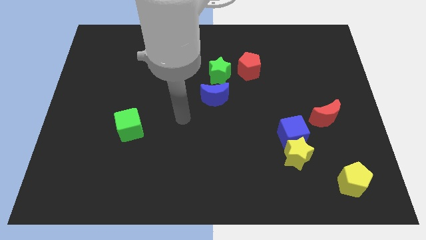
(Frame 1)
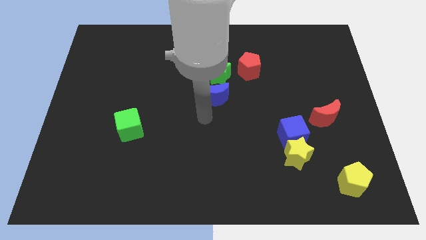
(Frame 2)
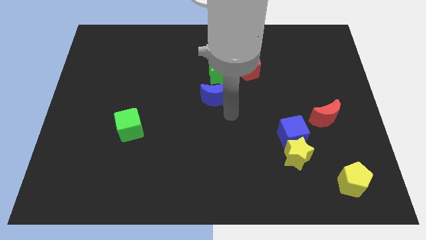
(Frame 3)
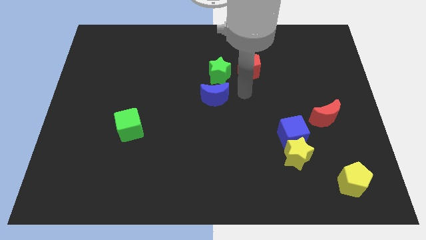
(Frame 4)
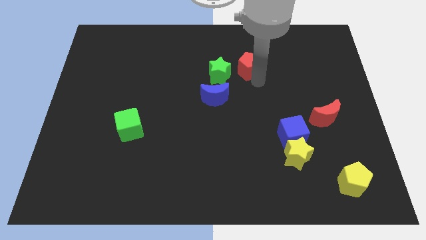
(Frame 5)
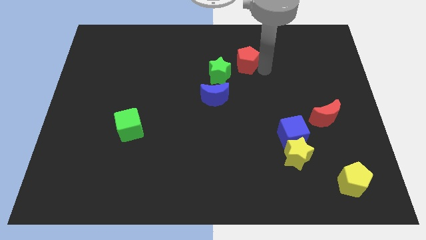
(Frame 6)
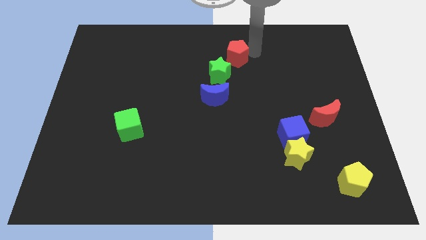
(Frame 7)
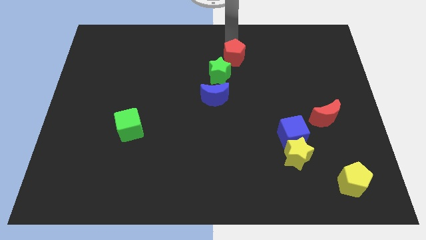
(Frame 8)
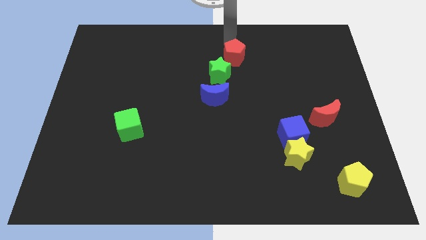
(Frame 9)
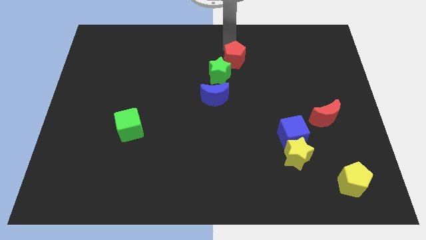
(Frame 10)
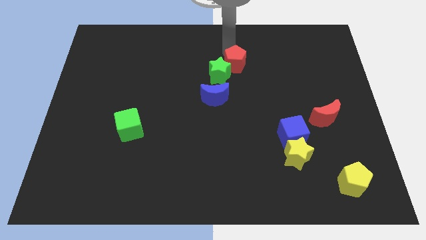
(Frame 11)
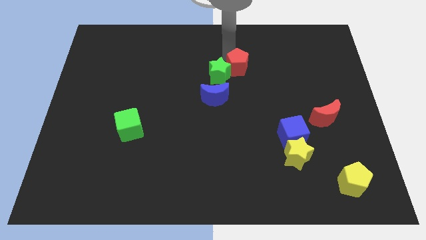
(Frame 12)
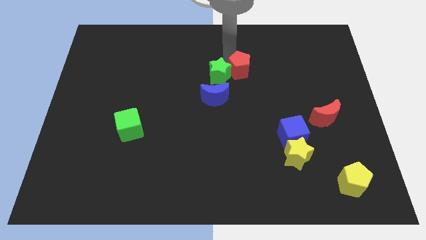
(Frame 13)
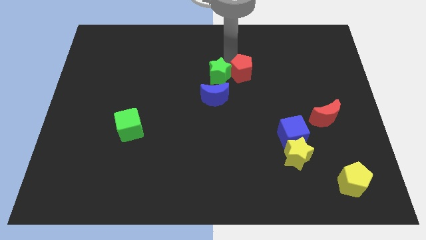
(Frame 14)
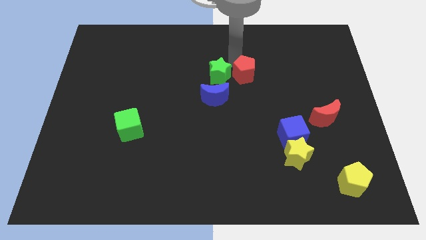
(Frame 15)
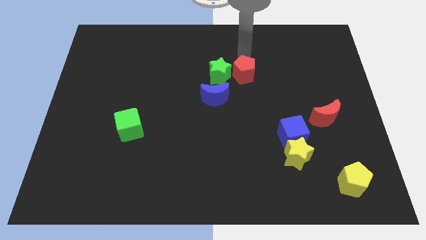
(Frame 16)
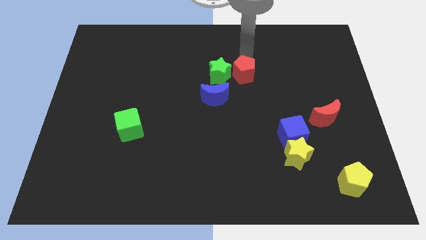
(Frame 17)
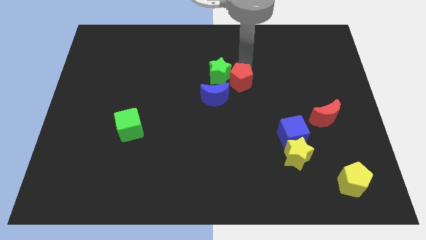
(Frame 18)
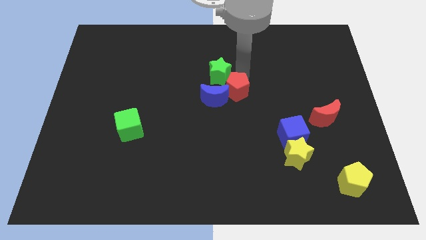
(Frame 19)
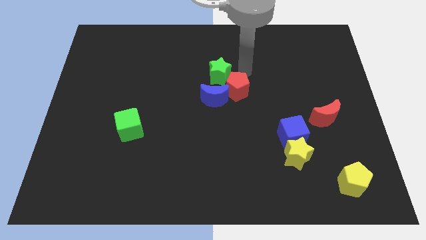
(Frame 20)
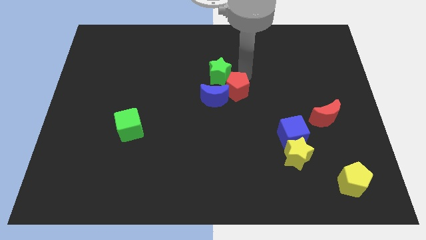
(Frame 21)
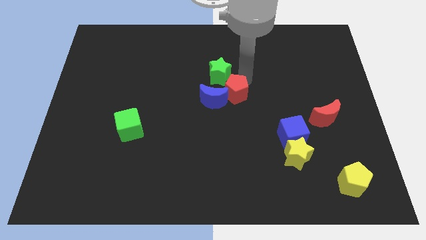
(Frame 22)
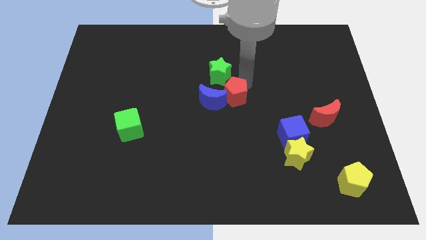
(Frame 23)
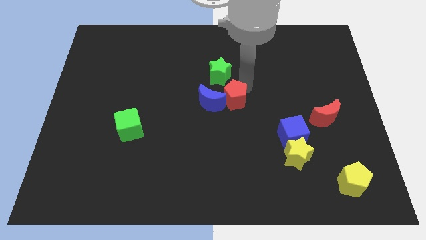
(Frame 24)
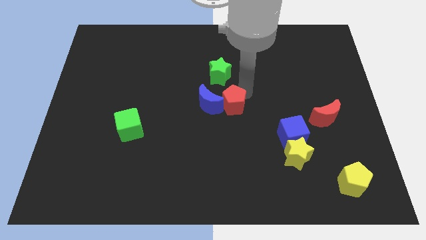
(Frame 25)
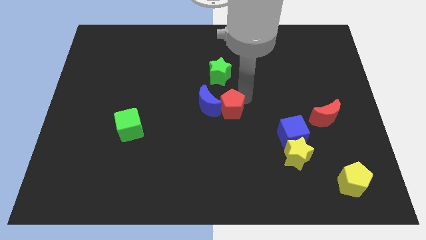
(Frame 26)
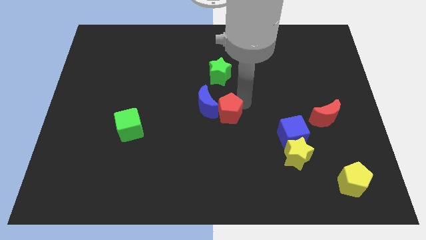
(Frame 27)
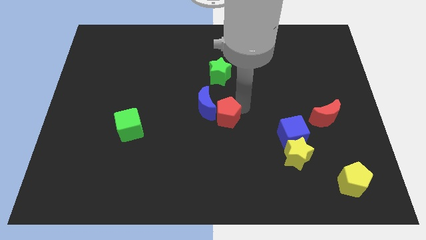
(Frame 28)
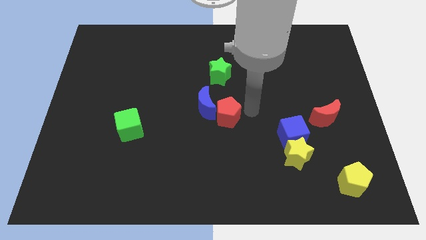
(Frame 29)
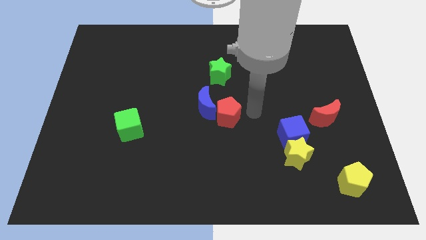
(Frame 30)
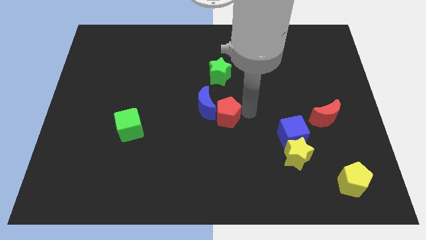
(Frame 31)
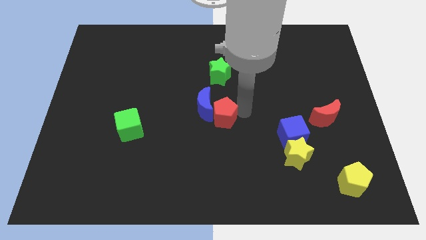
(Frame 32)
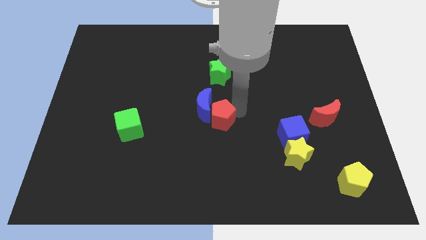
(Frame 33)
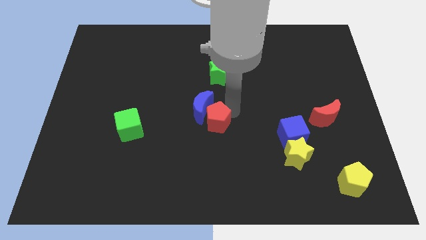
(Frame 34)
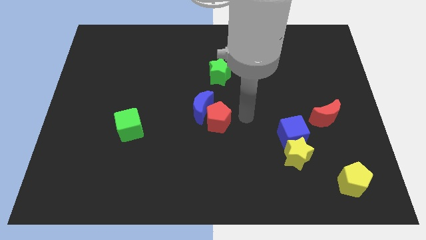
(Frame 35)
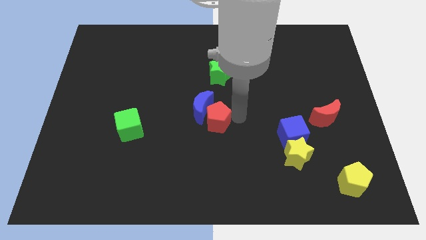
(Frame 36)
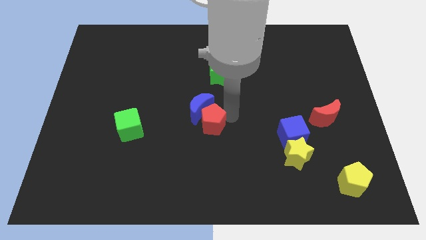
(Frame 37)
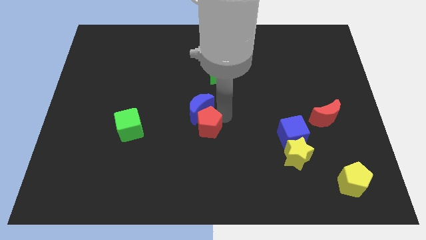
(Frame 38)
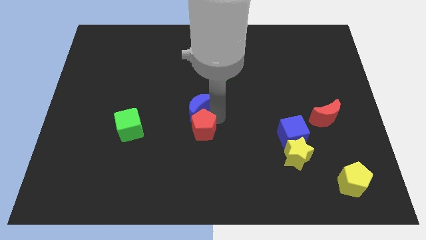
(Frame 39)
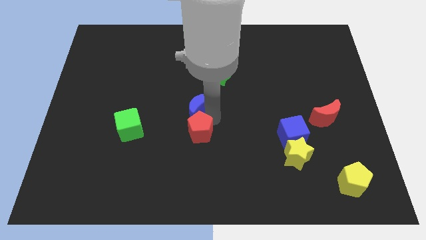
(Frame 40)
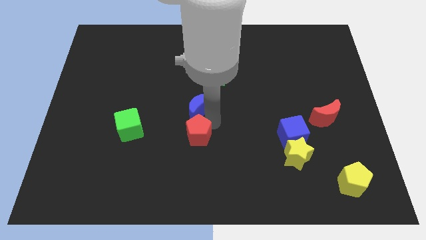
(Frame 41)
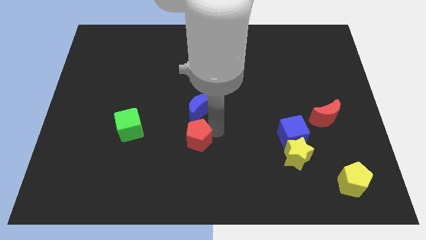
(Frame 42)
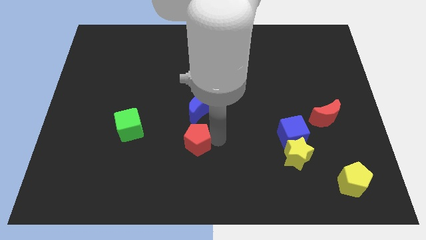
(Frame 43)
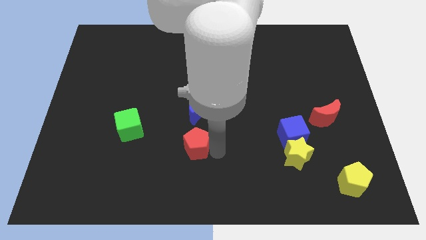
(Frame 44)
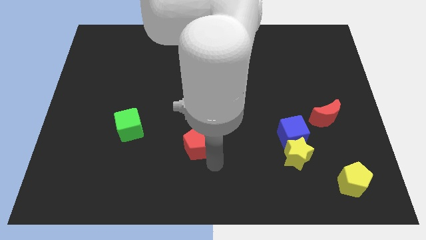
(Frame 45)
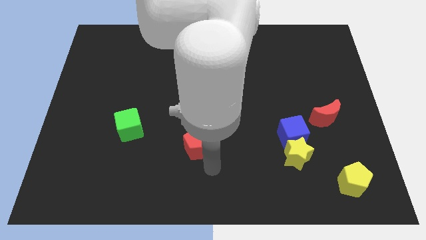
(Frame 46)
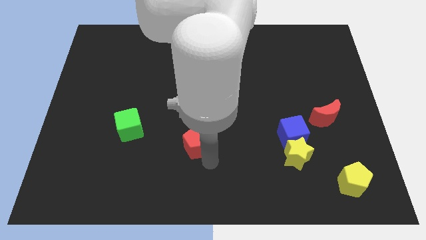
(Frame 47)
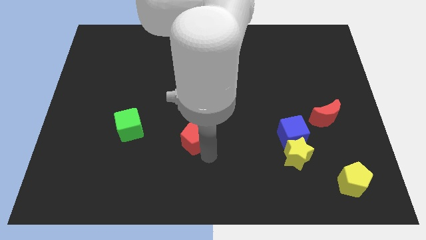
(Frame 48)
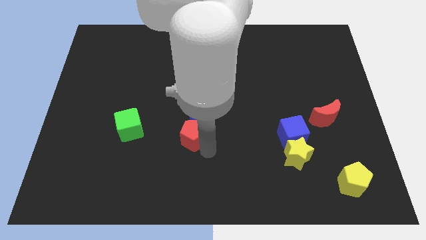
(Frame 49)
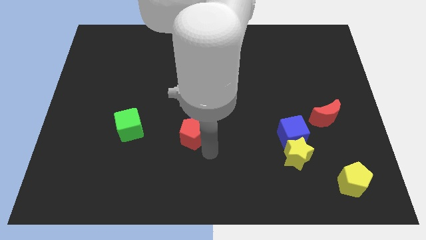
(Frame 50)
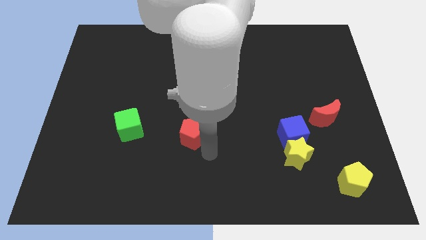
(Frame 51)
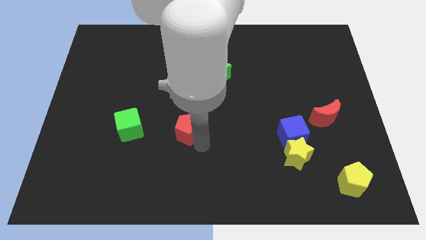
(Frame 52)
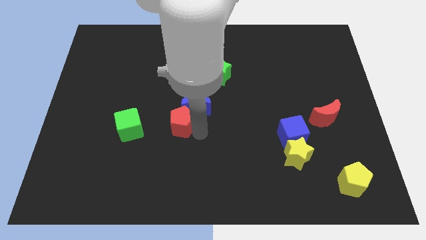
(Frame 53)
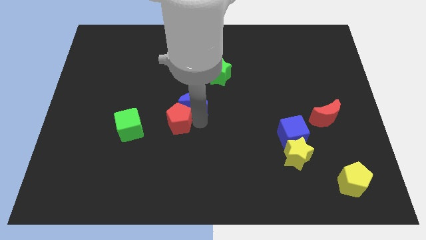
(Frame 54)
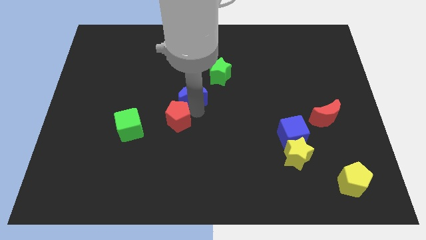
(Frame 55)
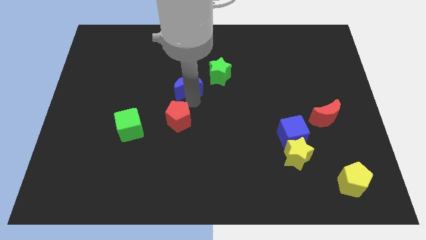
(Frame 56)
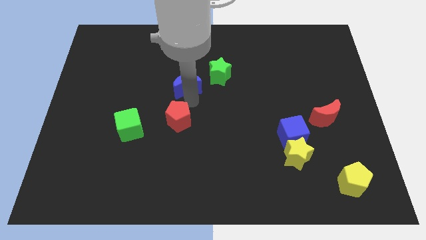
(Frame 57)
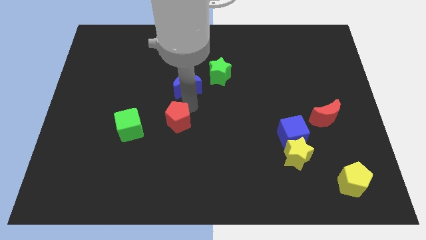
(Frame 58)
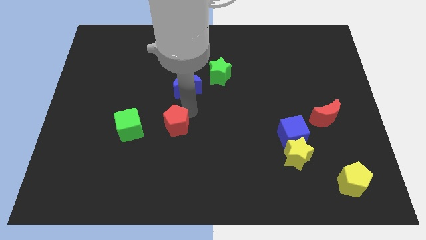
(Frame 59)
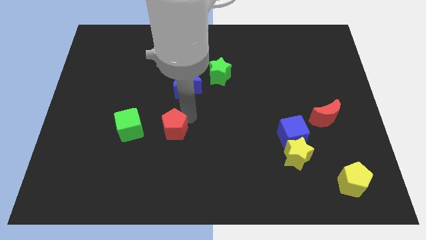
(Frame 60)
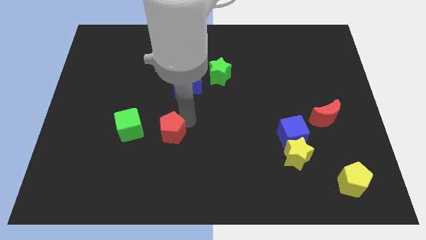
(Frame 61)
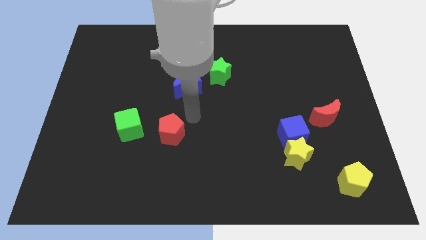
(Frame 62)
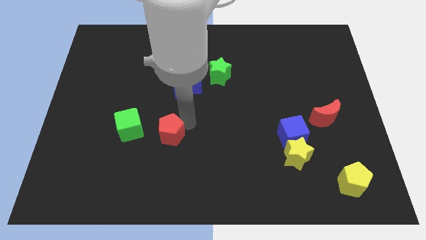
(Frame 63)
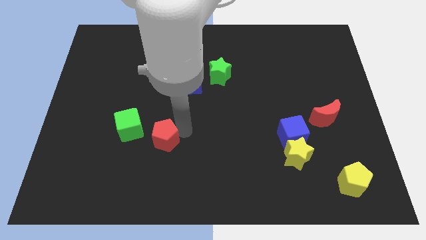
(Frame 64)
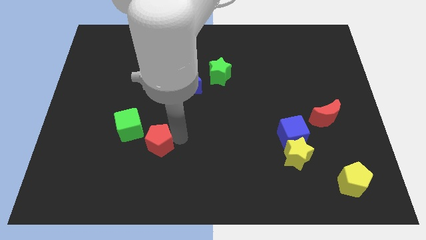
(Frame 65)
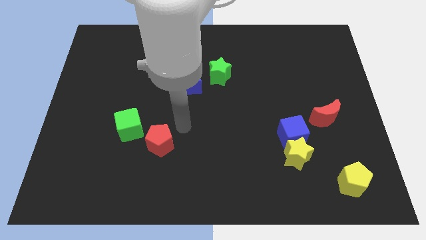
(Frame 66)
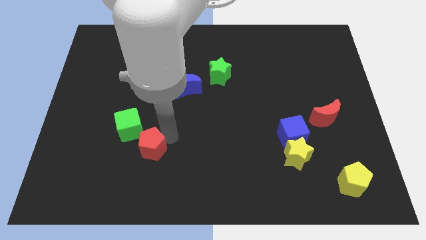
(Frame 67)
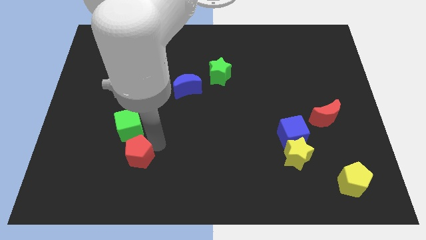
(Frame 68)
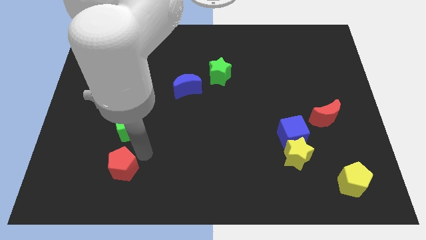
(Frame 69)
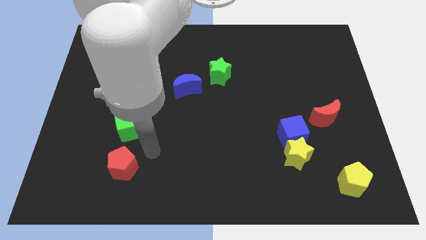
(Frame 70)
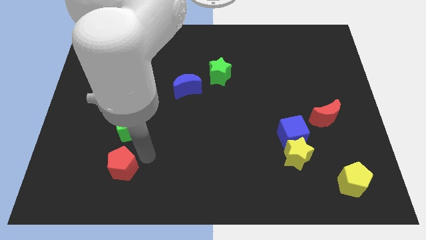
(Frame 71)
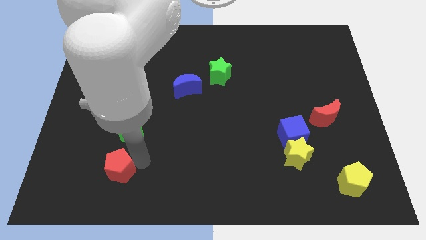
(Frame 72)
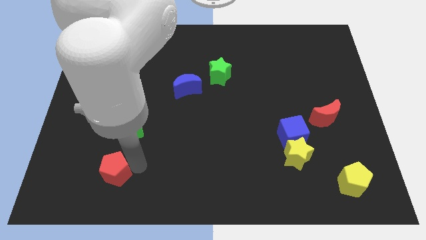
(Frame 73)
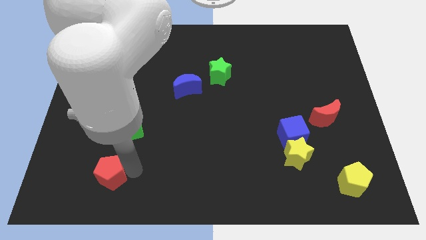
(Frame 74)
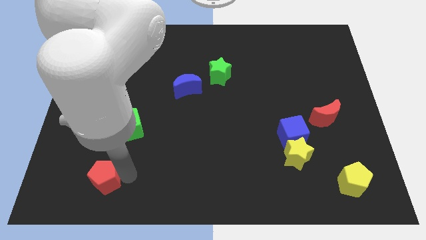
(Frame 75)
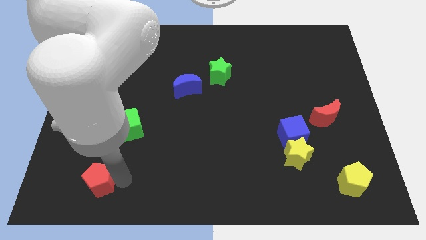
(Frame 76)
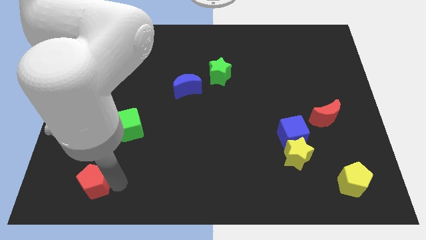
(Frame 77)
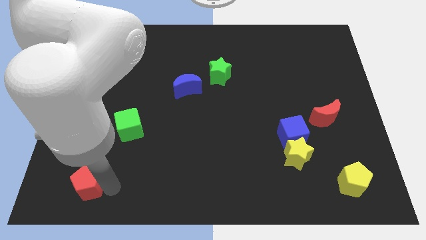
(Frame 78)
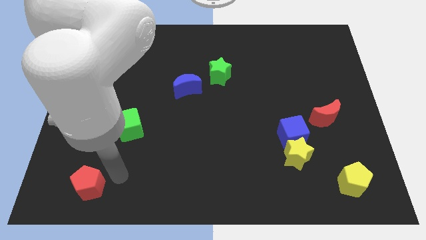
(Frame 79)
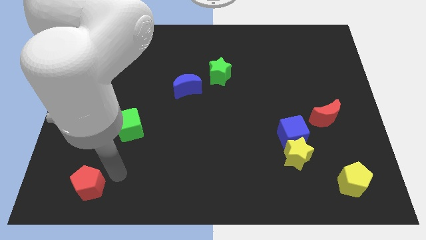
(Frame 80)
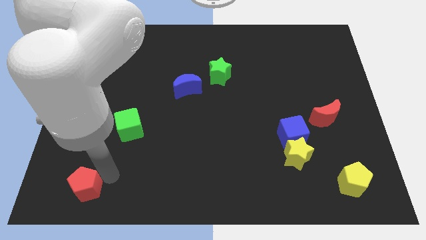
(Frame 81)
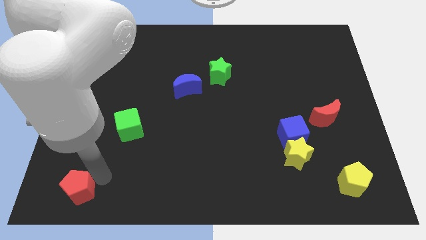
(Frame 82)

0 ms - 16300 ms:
slide the red pentagon to the bottom left corner
